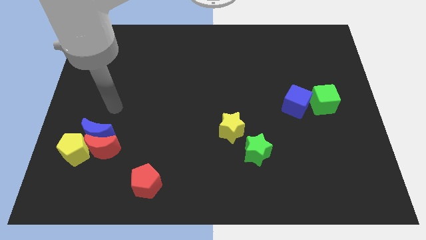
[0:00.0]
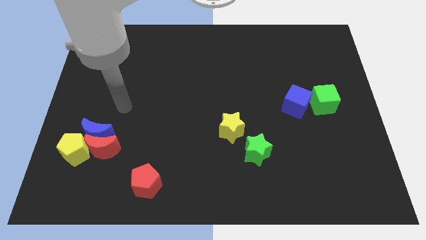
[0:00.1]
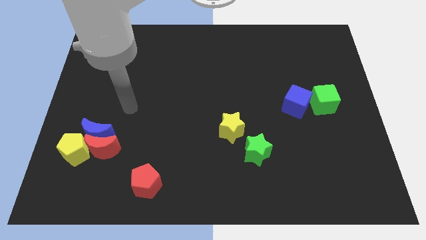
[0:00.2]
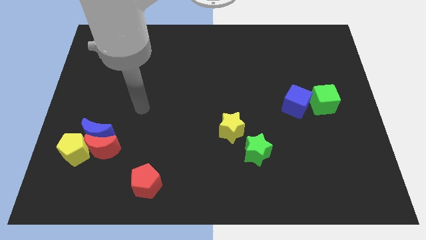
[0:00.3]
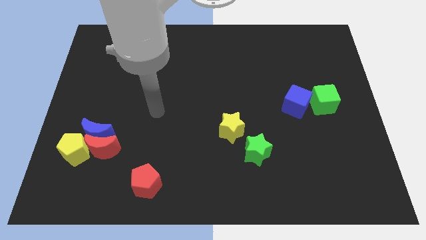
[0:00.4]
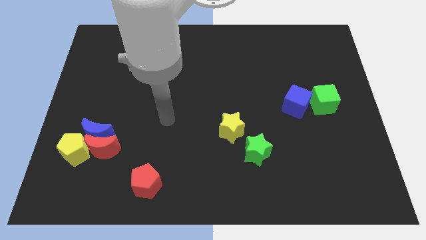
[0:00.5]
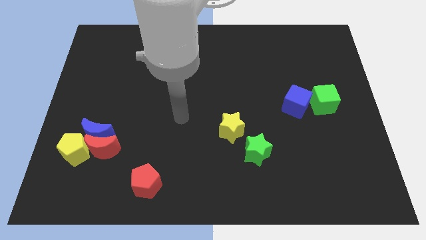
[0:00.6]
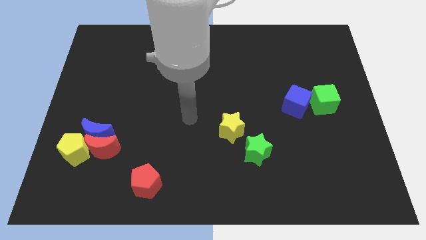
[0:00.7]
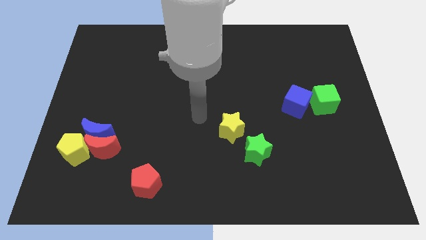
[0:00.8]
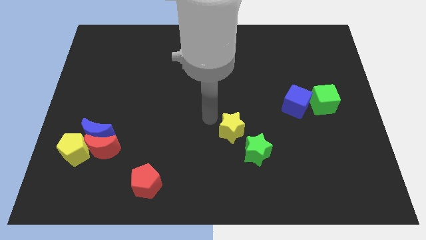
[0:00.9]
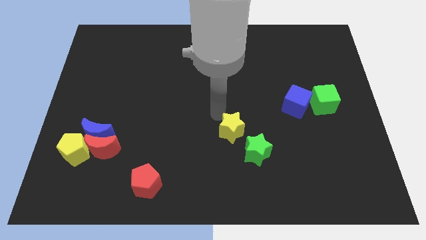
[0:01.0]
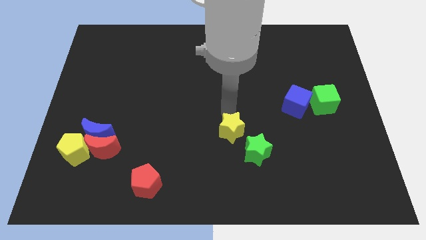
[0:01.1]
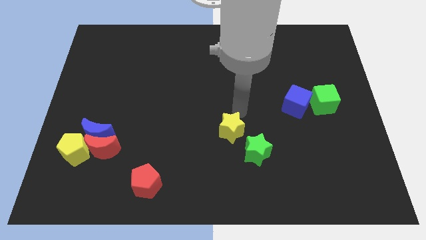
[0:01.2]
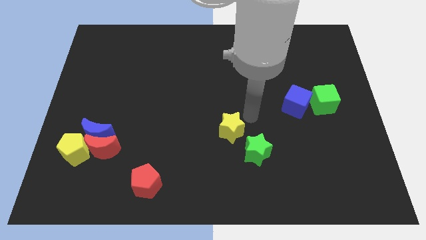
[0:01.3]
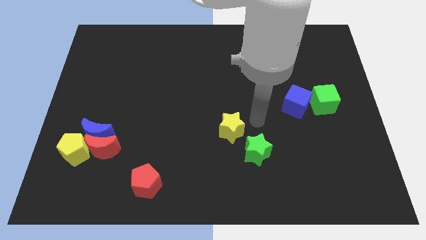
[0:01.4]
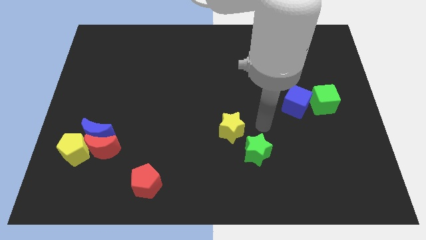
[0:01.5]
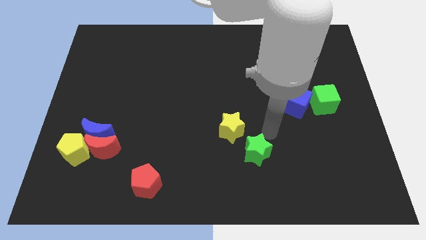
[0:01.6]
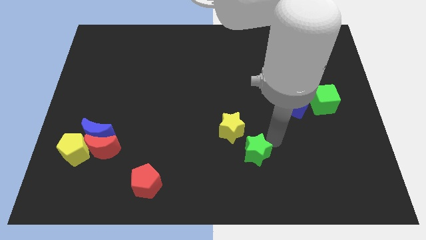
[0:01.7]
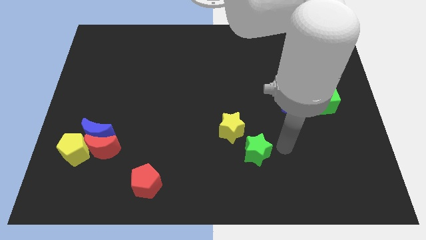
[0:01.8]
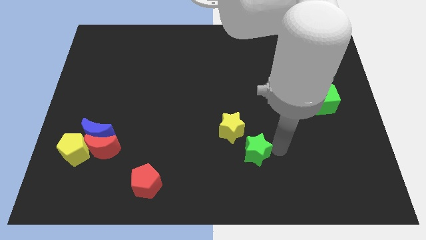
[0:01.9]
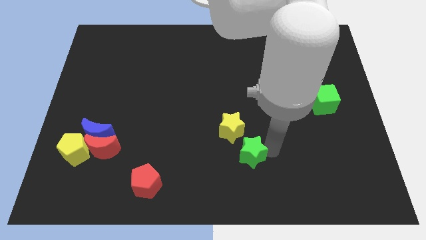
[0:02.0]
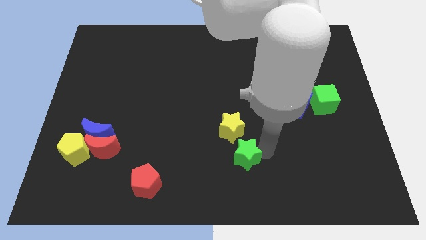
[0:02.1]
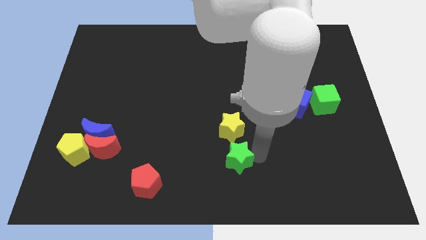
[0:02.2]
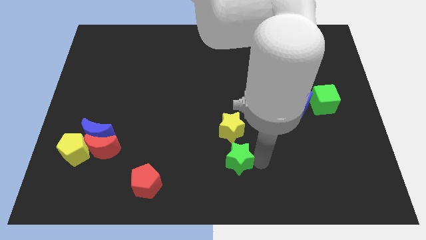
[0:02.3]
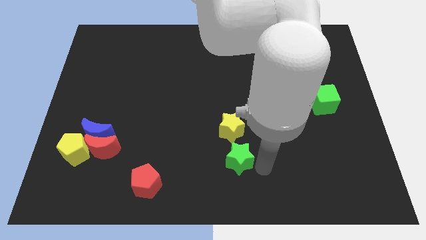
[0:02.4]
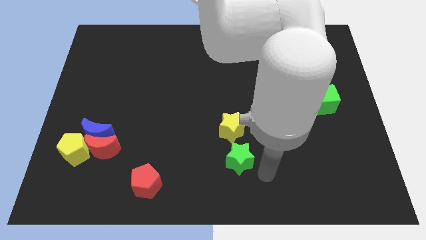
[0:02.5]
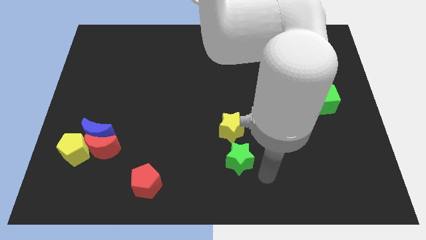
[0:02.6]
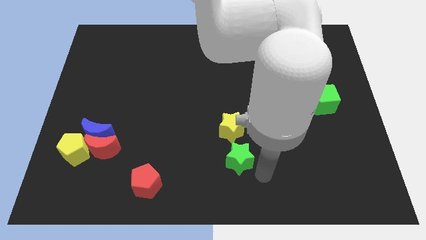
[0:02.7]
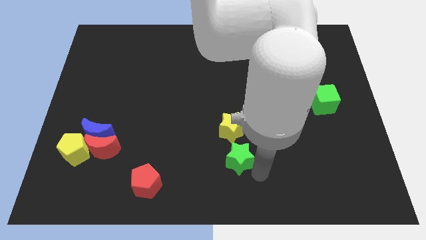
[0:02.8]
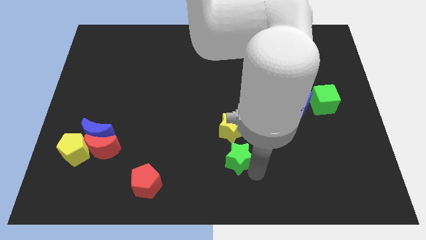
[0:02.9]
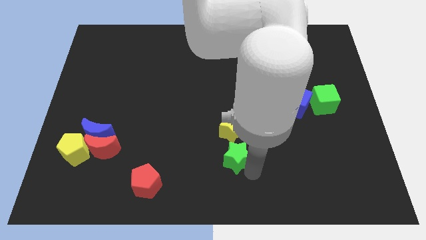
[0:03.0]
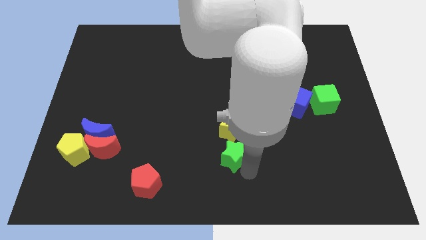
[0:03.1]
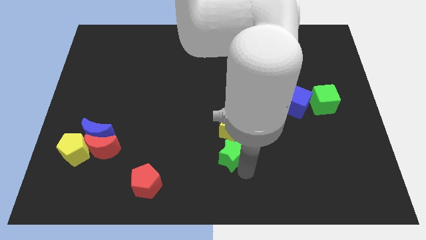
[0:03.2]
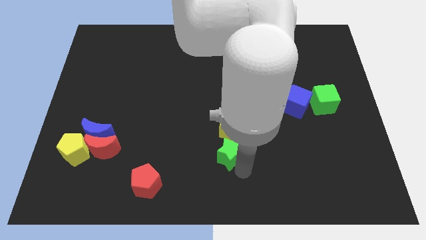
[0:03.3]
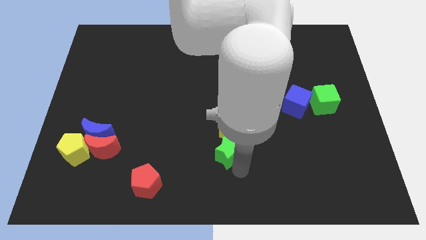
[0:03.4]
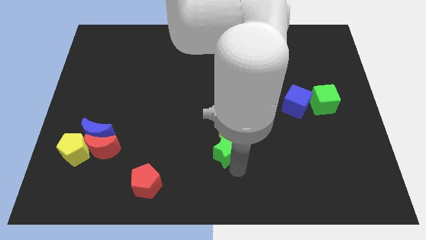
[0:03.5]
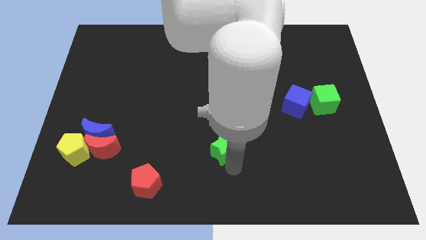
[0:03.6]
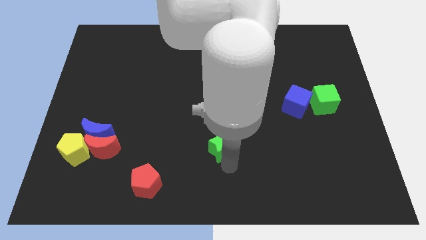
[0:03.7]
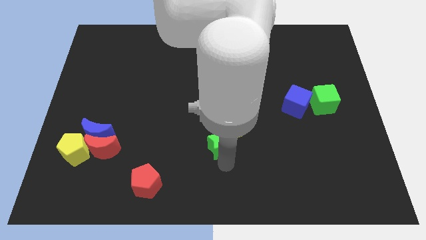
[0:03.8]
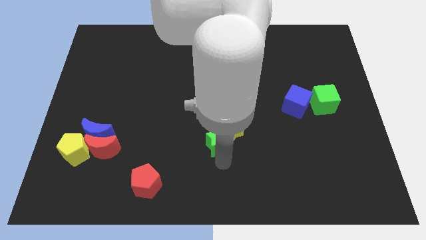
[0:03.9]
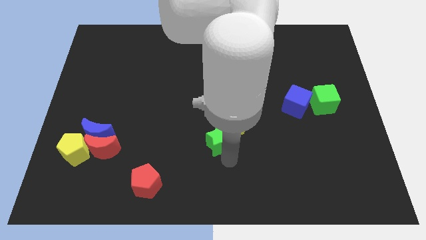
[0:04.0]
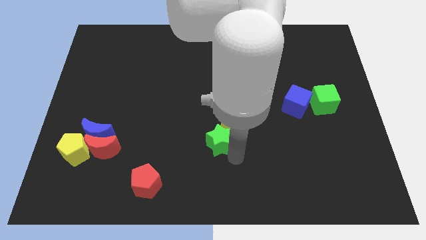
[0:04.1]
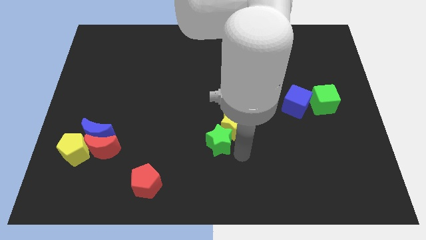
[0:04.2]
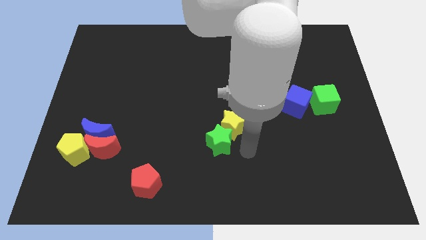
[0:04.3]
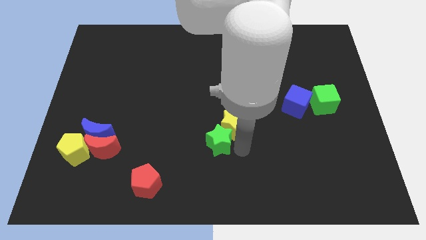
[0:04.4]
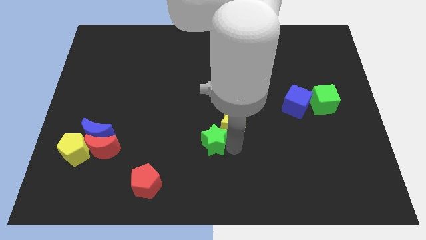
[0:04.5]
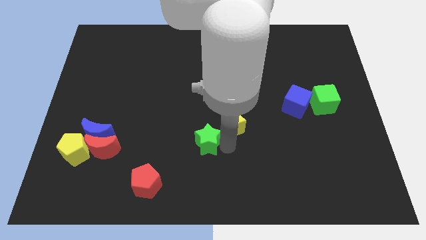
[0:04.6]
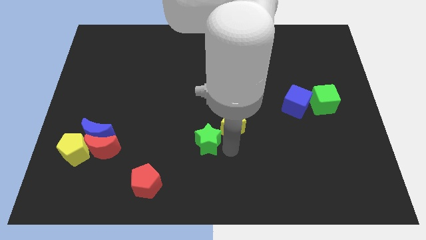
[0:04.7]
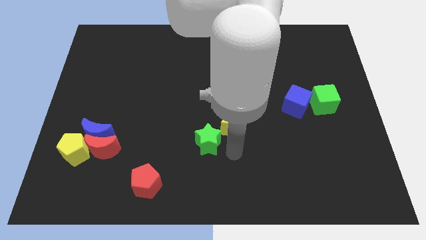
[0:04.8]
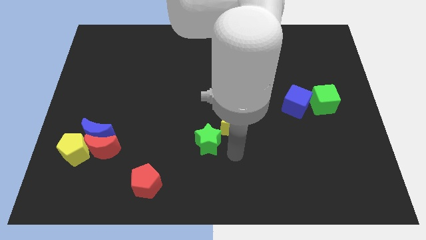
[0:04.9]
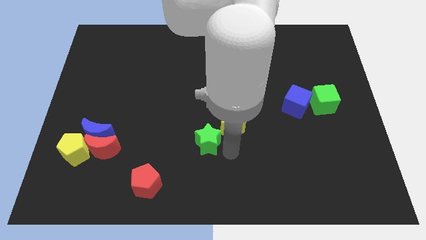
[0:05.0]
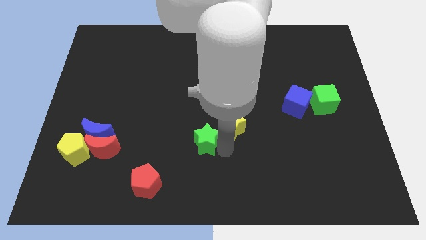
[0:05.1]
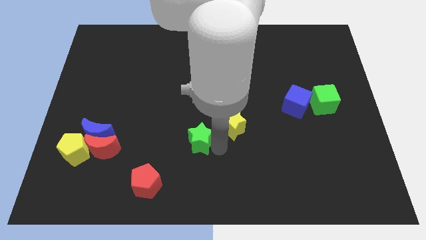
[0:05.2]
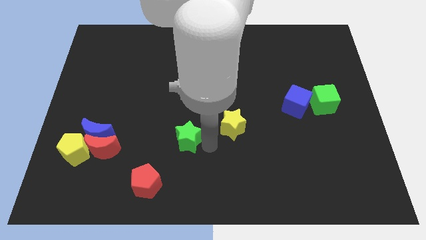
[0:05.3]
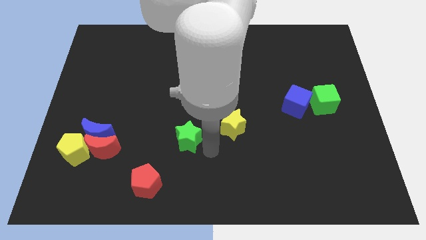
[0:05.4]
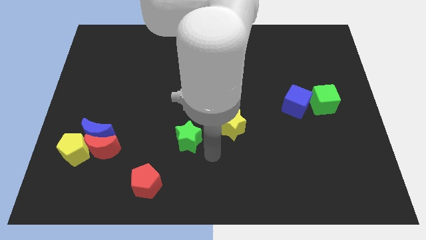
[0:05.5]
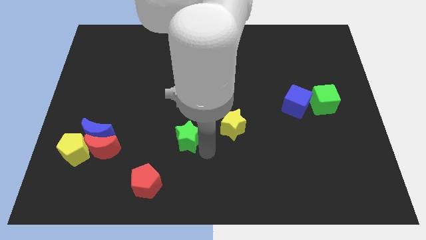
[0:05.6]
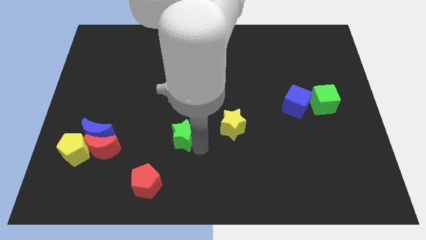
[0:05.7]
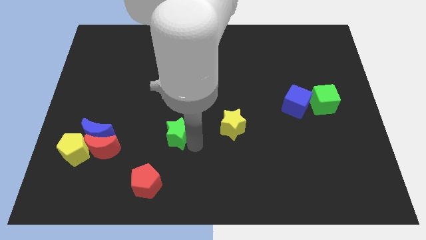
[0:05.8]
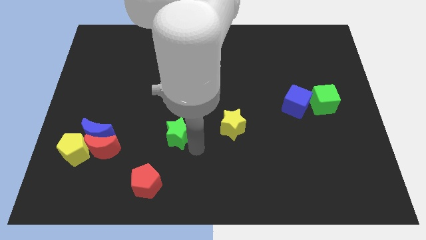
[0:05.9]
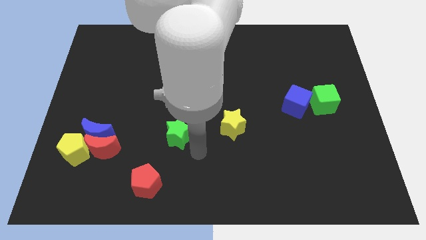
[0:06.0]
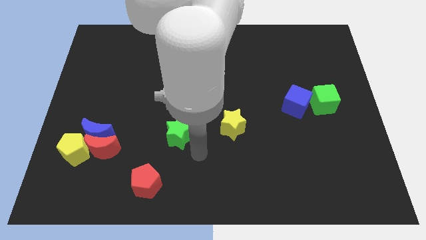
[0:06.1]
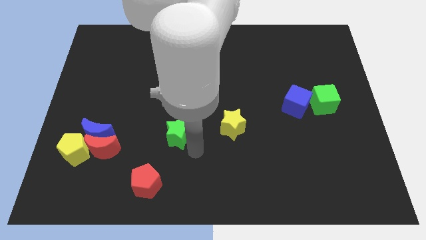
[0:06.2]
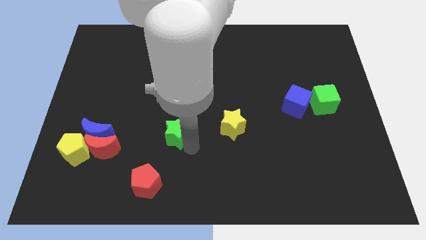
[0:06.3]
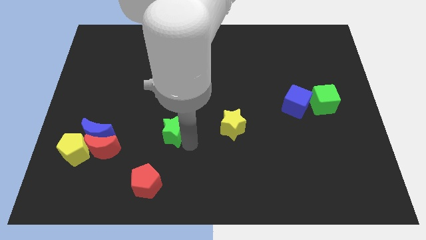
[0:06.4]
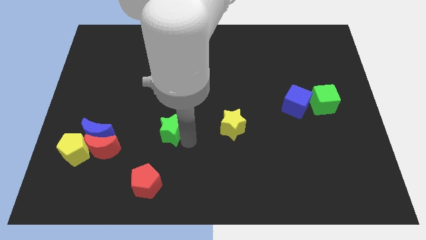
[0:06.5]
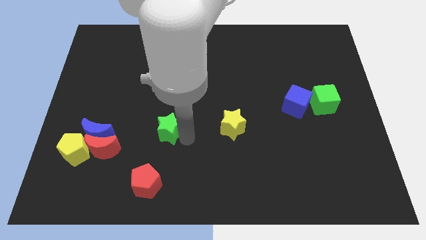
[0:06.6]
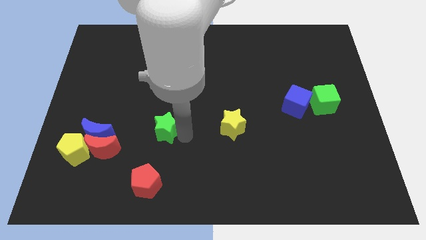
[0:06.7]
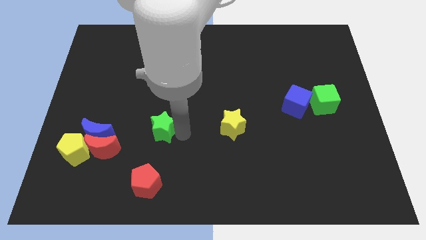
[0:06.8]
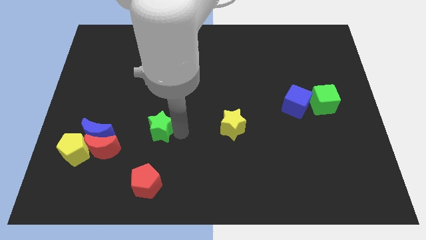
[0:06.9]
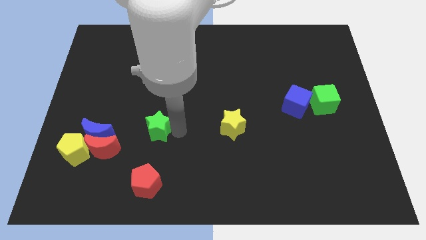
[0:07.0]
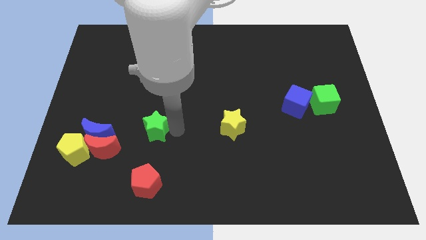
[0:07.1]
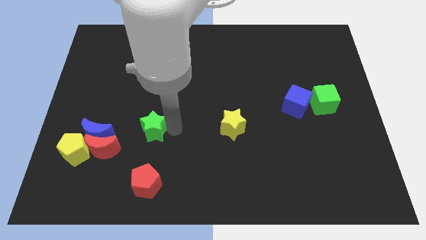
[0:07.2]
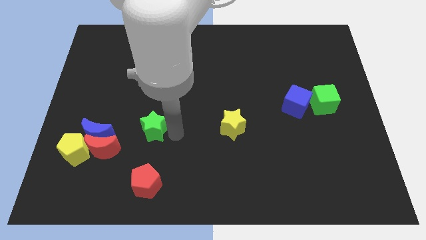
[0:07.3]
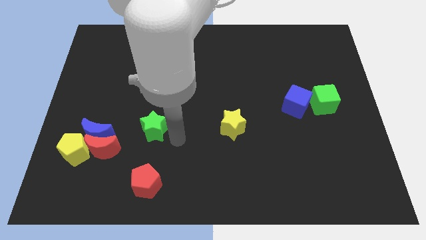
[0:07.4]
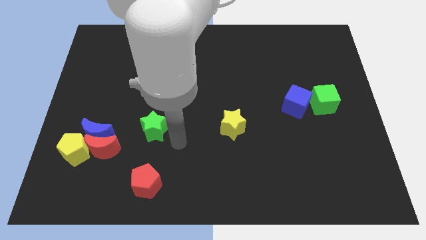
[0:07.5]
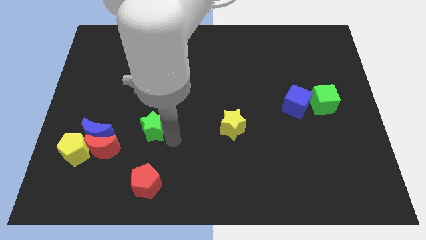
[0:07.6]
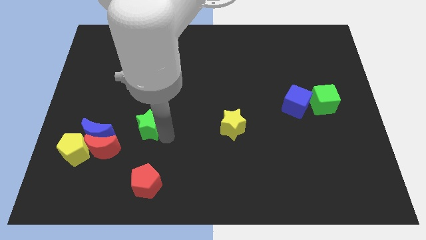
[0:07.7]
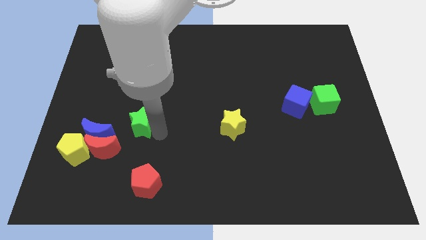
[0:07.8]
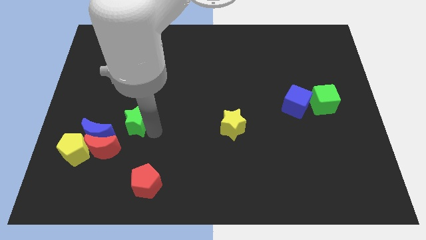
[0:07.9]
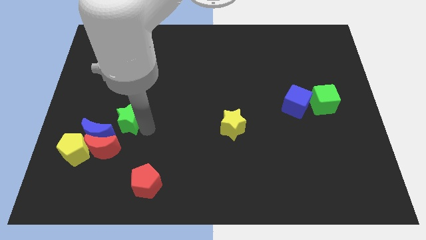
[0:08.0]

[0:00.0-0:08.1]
put the green star above the red moon
